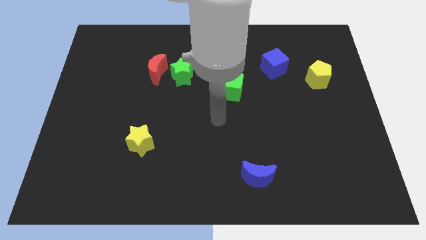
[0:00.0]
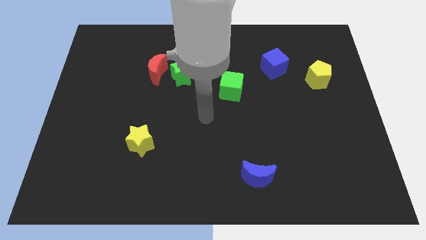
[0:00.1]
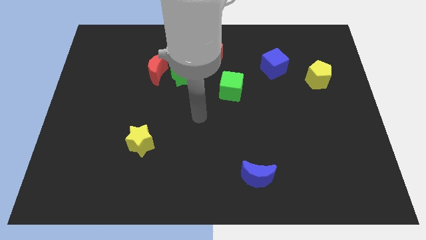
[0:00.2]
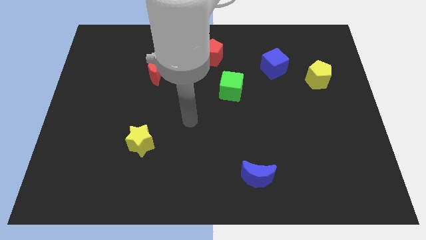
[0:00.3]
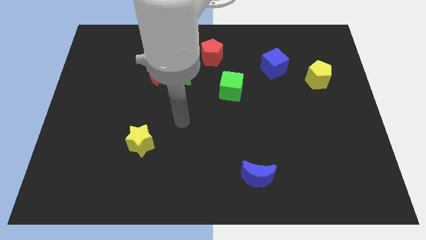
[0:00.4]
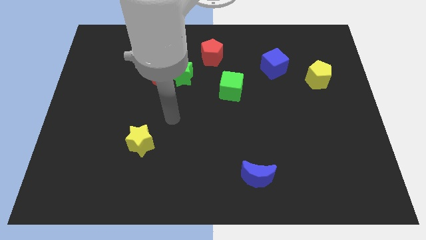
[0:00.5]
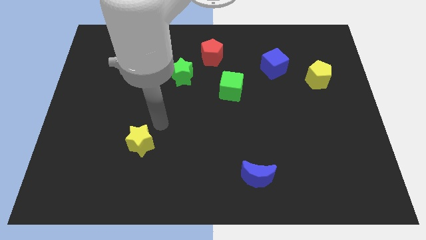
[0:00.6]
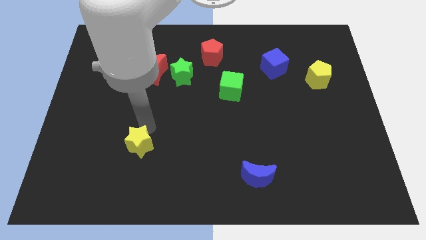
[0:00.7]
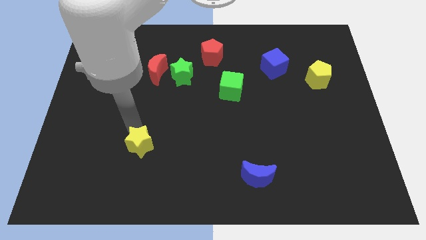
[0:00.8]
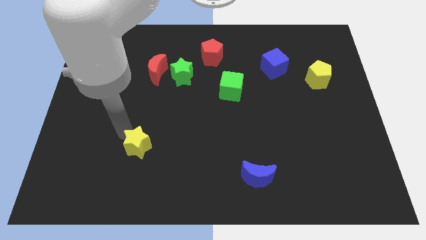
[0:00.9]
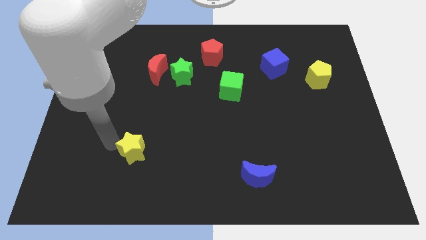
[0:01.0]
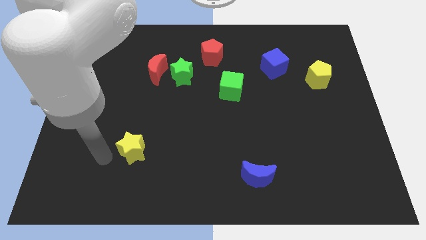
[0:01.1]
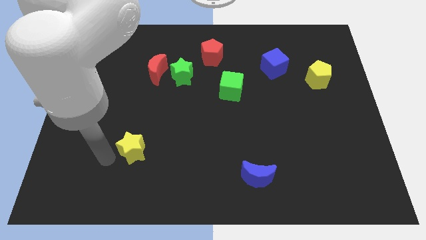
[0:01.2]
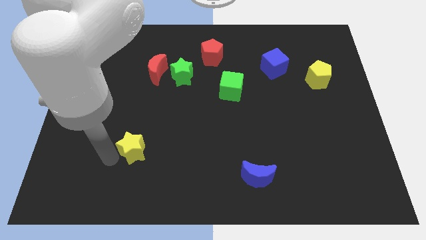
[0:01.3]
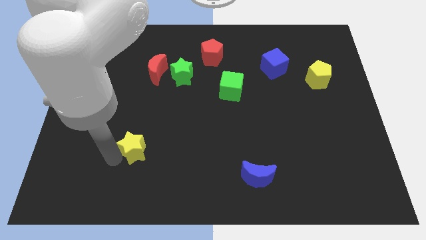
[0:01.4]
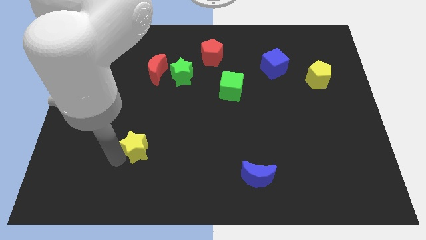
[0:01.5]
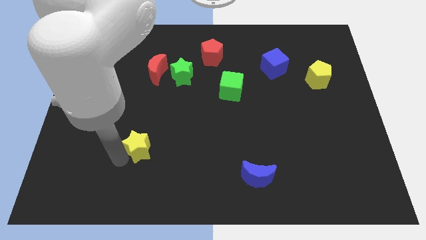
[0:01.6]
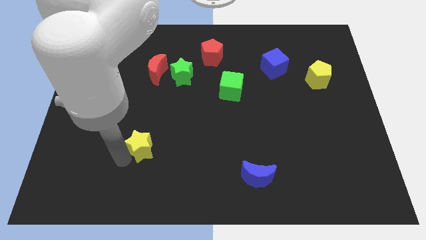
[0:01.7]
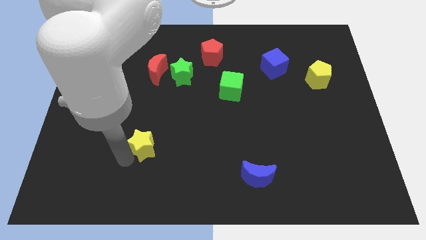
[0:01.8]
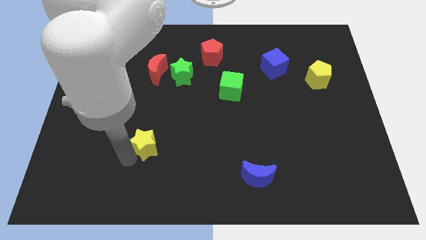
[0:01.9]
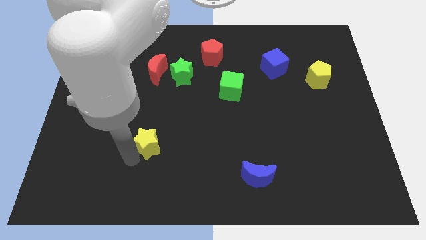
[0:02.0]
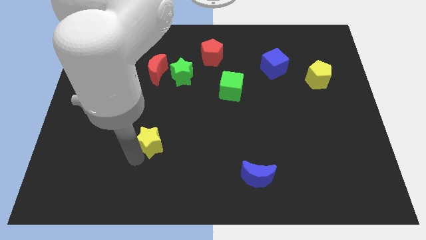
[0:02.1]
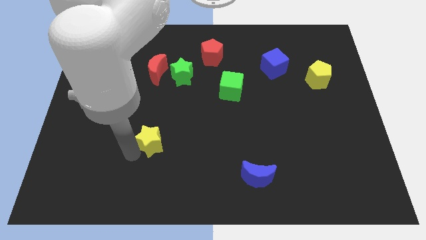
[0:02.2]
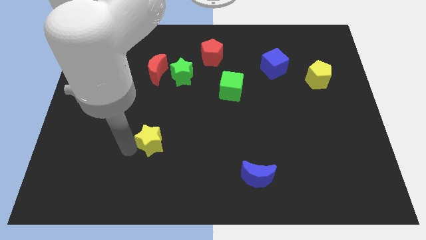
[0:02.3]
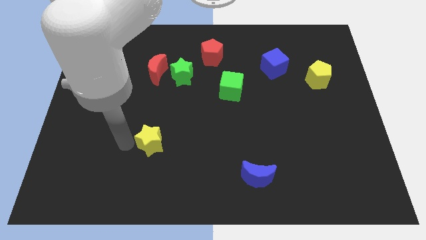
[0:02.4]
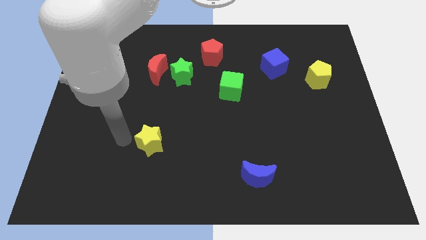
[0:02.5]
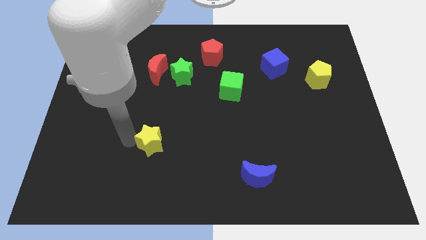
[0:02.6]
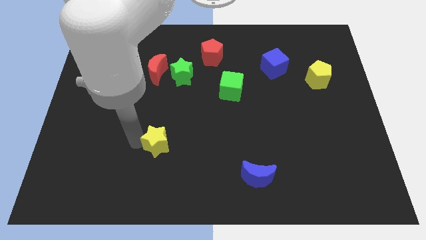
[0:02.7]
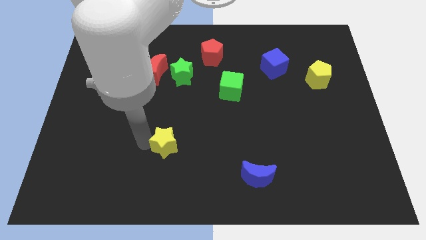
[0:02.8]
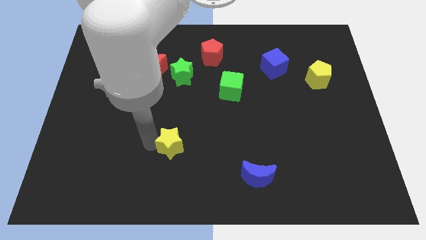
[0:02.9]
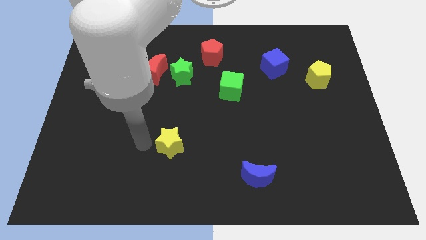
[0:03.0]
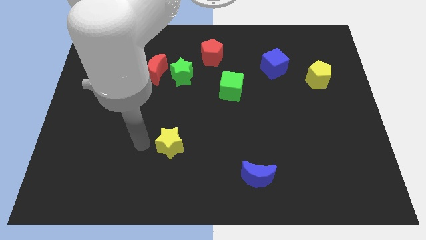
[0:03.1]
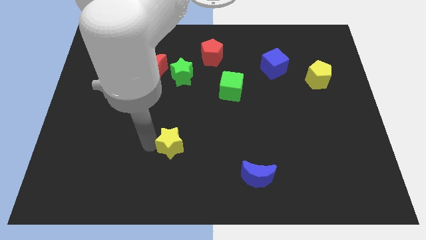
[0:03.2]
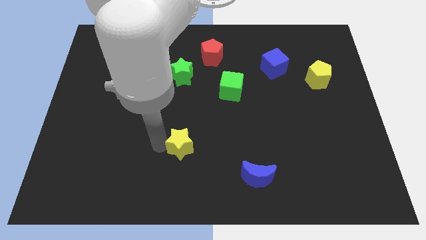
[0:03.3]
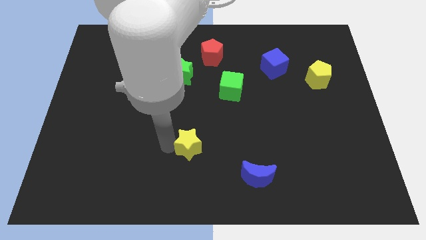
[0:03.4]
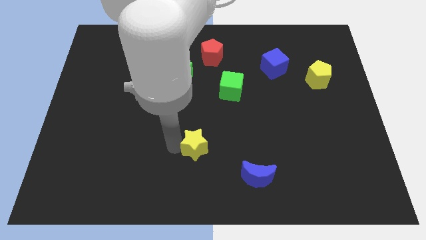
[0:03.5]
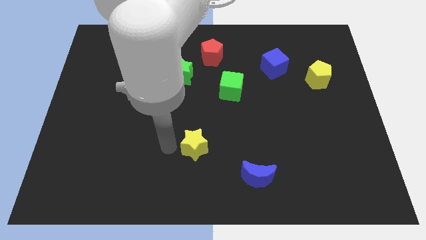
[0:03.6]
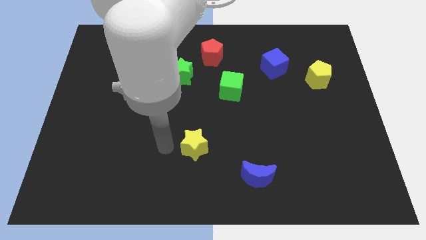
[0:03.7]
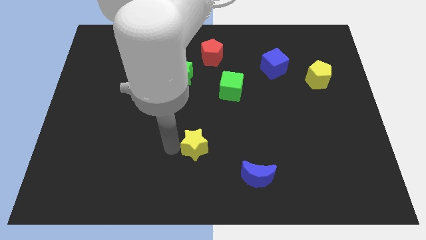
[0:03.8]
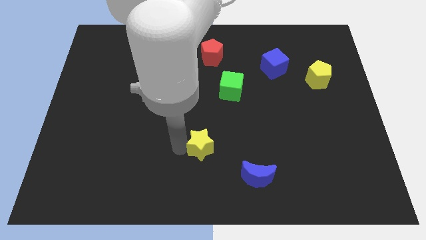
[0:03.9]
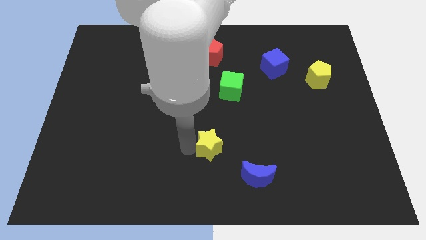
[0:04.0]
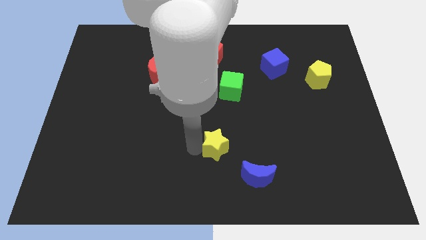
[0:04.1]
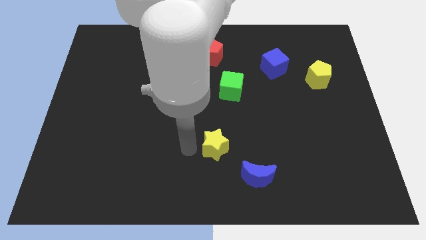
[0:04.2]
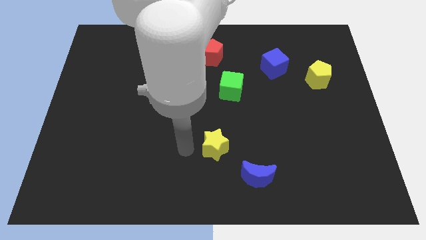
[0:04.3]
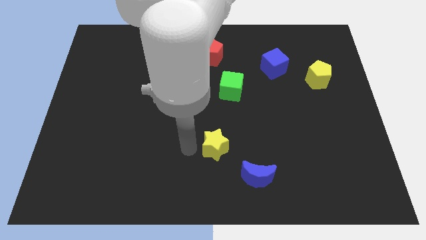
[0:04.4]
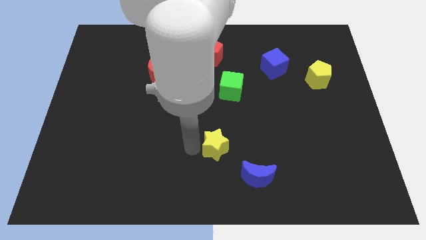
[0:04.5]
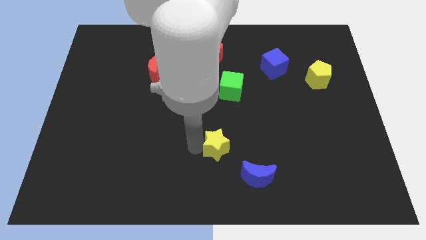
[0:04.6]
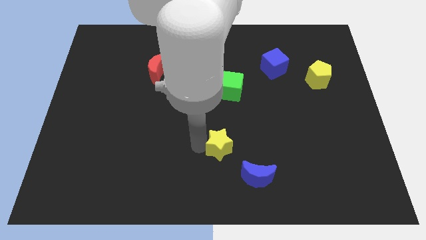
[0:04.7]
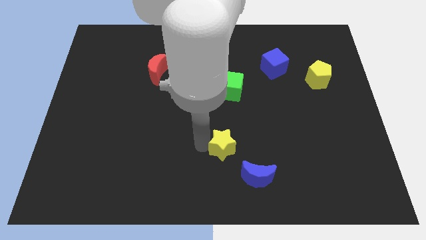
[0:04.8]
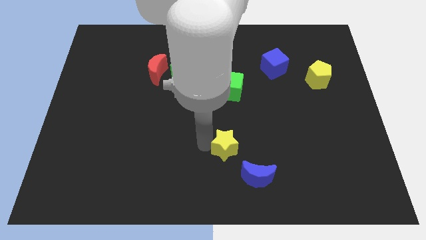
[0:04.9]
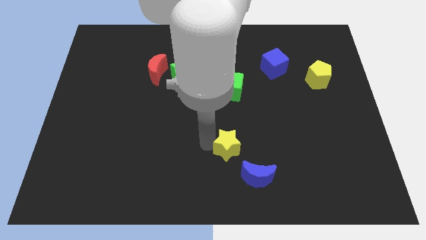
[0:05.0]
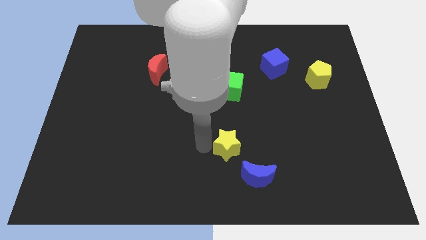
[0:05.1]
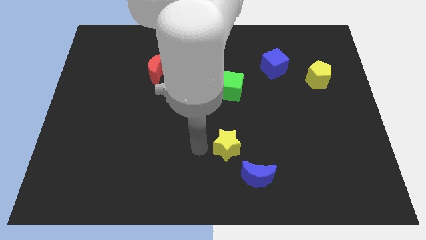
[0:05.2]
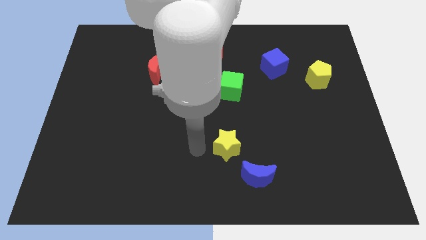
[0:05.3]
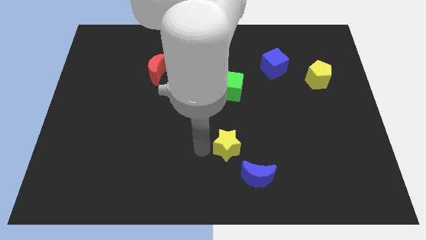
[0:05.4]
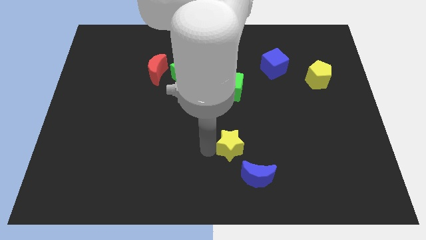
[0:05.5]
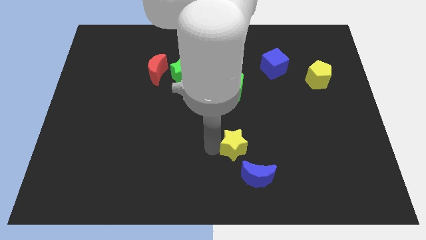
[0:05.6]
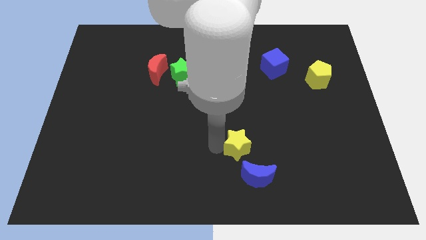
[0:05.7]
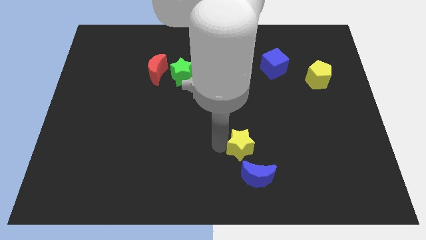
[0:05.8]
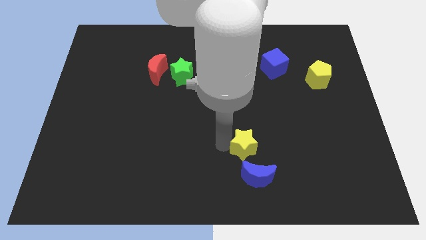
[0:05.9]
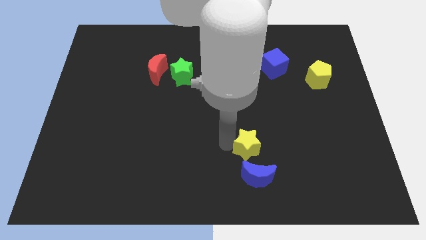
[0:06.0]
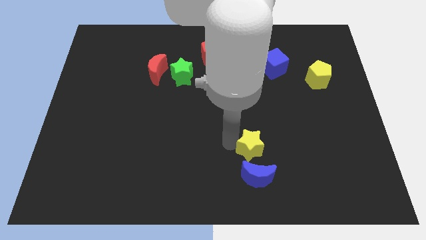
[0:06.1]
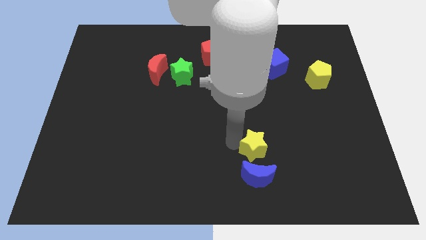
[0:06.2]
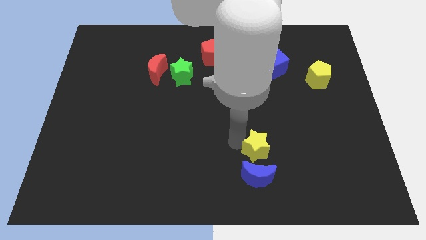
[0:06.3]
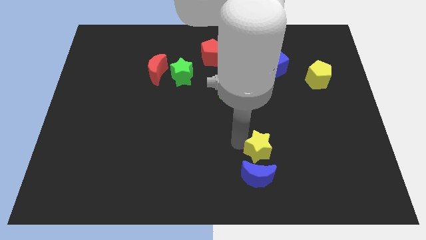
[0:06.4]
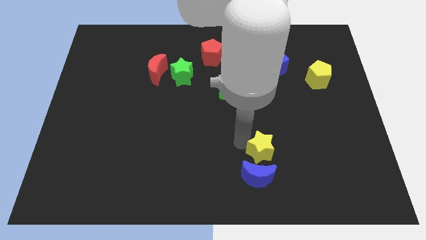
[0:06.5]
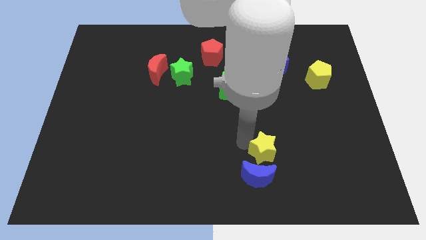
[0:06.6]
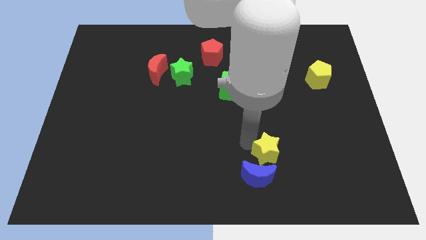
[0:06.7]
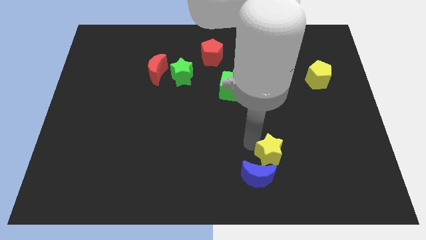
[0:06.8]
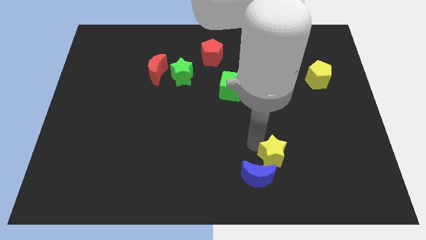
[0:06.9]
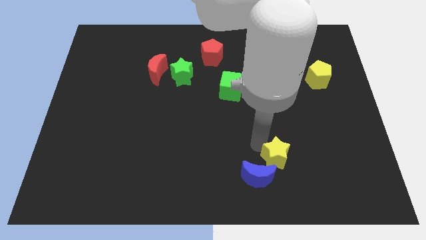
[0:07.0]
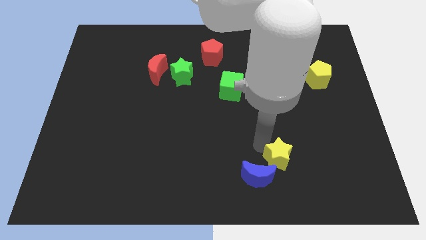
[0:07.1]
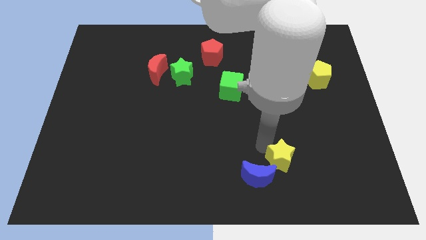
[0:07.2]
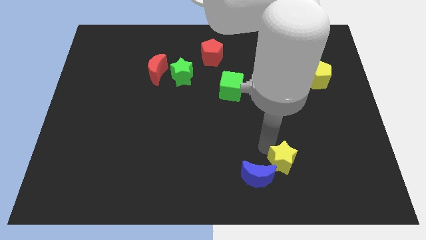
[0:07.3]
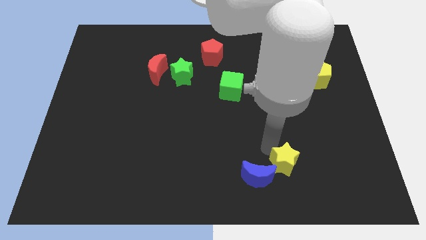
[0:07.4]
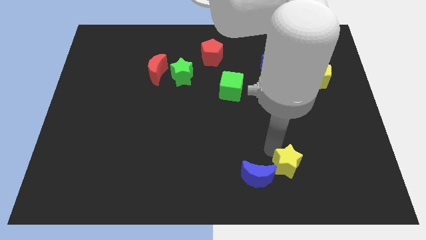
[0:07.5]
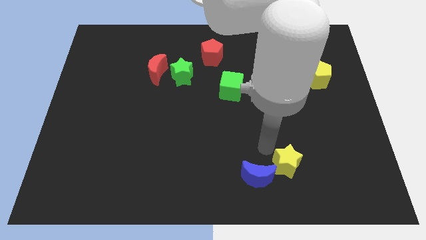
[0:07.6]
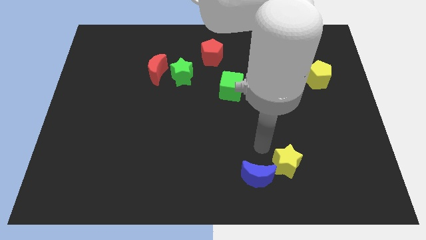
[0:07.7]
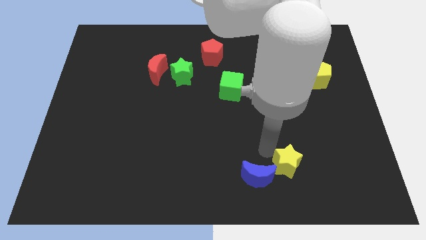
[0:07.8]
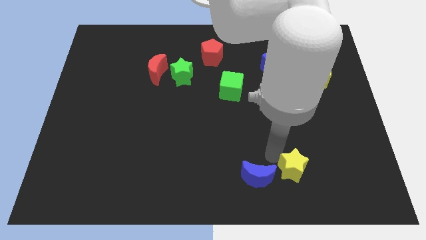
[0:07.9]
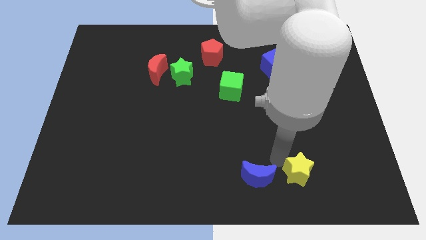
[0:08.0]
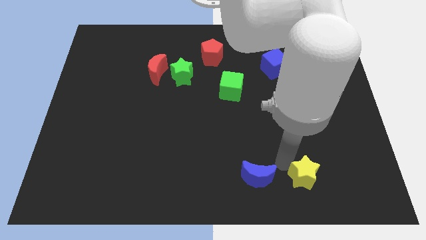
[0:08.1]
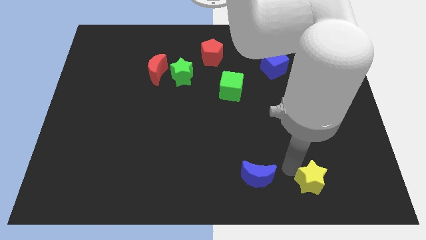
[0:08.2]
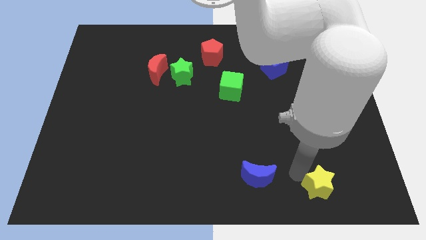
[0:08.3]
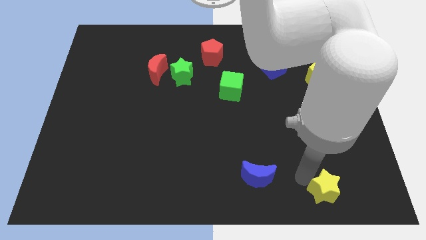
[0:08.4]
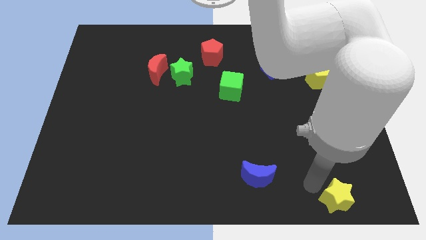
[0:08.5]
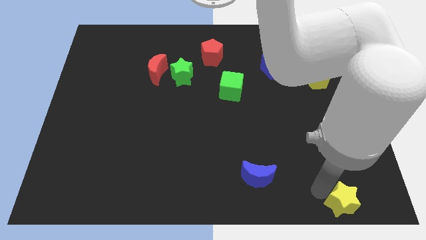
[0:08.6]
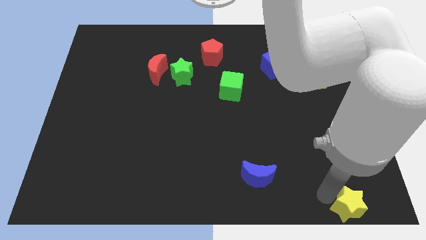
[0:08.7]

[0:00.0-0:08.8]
slide the yellow star to the lower right corner
